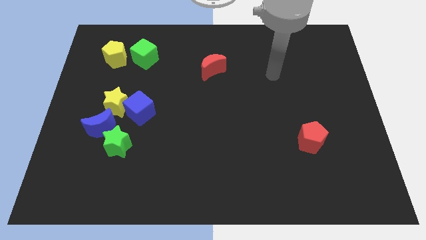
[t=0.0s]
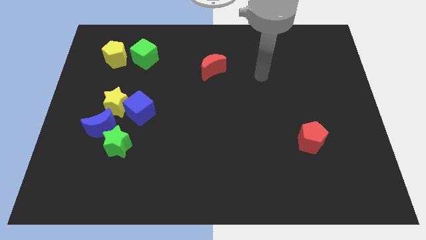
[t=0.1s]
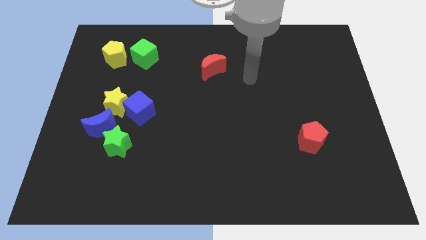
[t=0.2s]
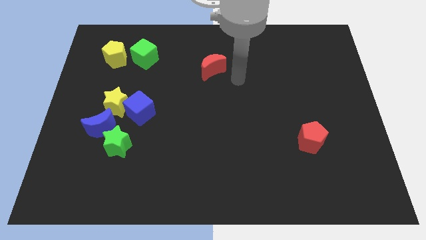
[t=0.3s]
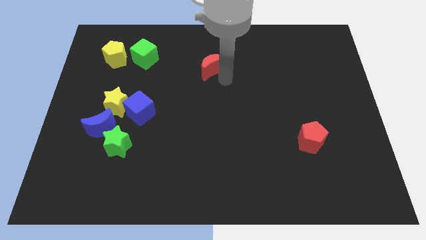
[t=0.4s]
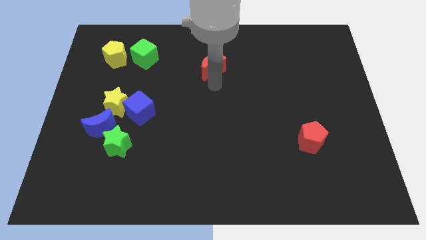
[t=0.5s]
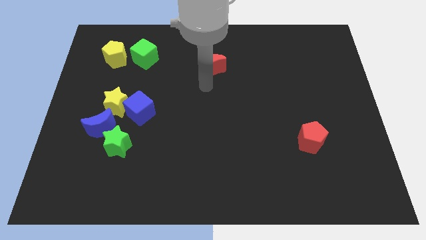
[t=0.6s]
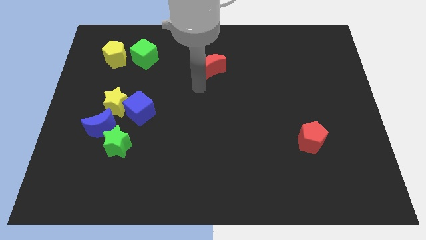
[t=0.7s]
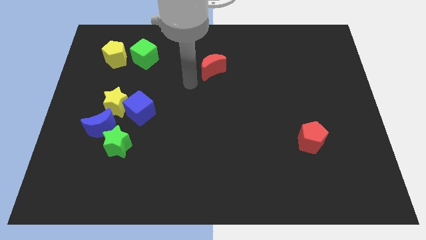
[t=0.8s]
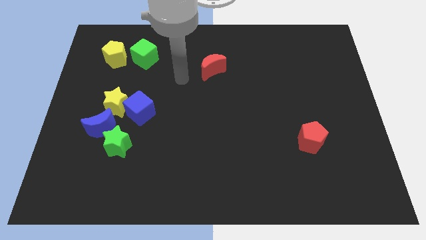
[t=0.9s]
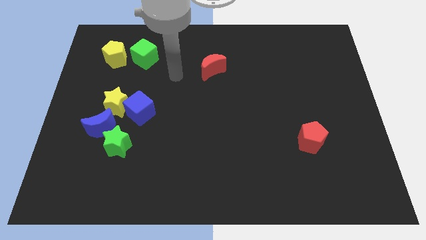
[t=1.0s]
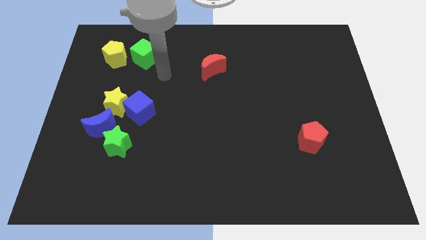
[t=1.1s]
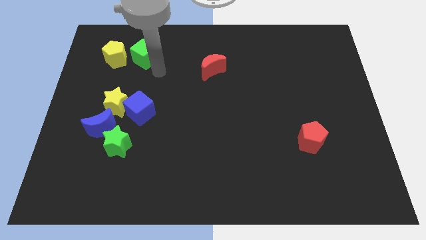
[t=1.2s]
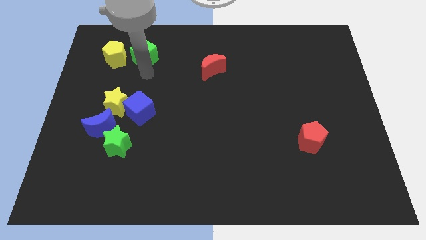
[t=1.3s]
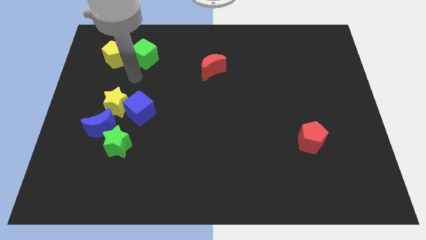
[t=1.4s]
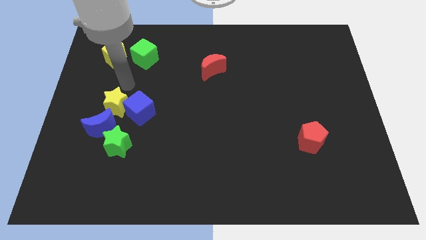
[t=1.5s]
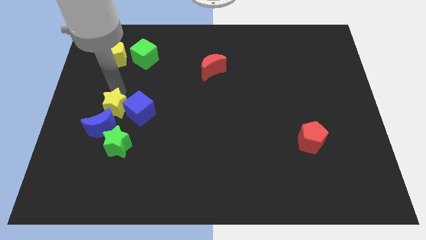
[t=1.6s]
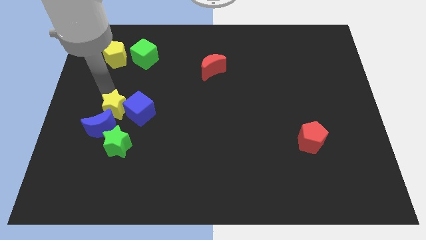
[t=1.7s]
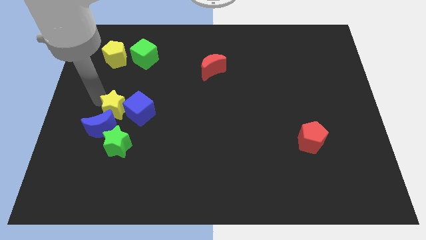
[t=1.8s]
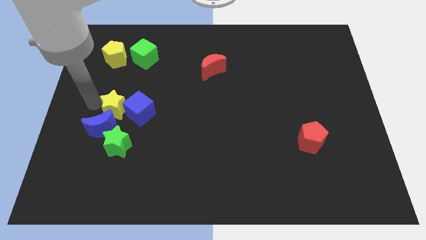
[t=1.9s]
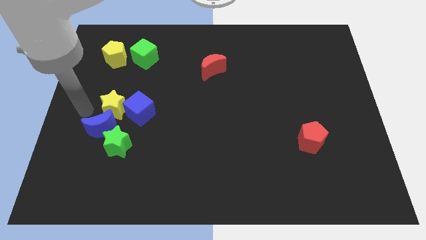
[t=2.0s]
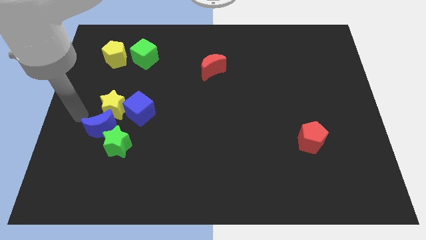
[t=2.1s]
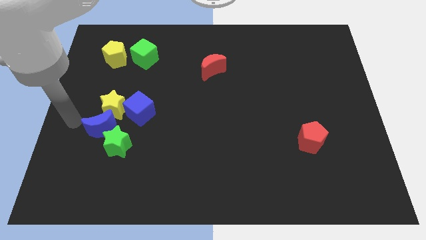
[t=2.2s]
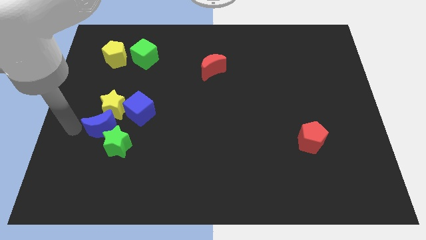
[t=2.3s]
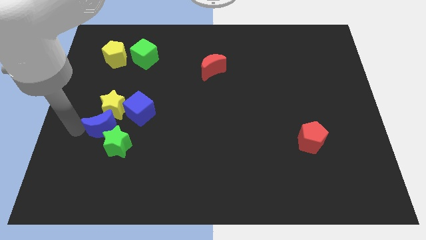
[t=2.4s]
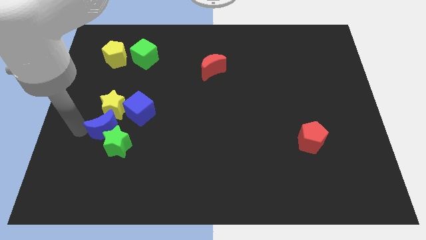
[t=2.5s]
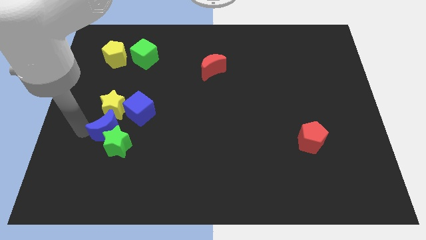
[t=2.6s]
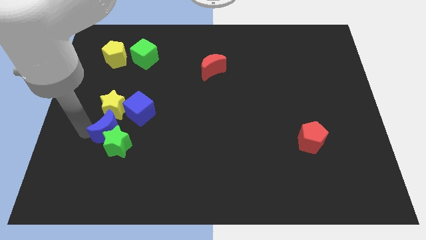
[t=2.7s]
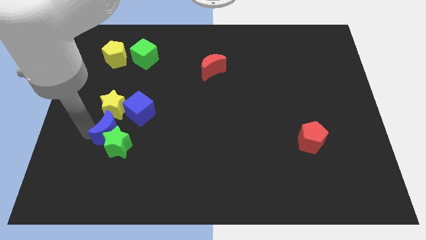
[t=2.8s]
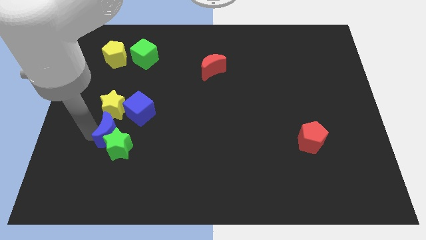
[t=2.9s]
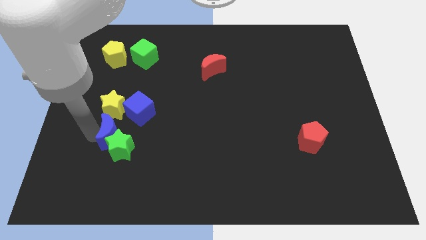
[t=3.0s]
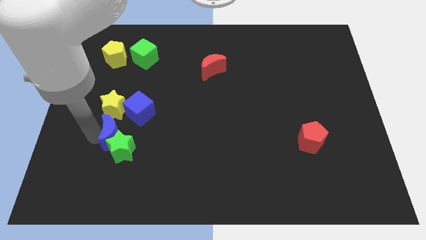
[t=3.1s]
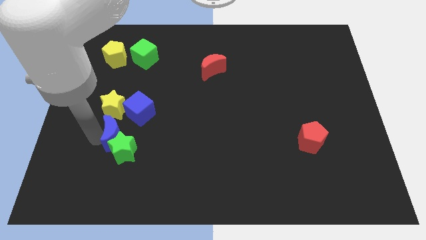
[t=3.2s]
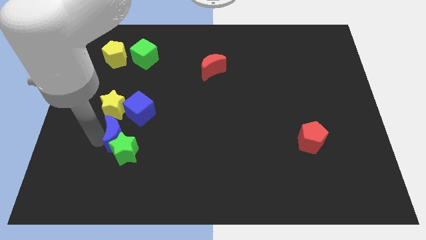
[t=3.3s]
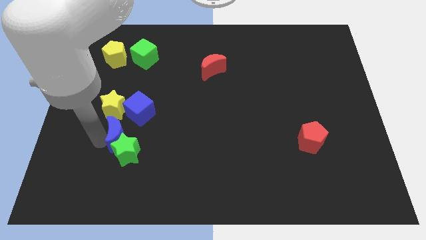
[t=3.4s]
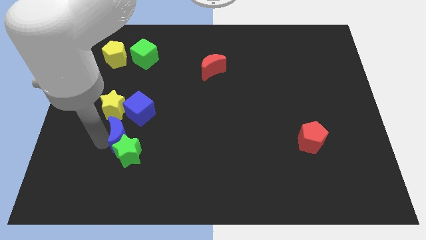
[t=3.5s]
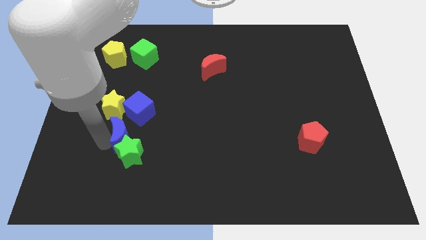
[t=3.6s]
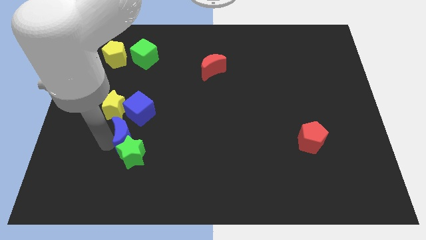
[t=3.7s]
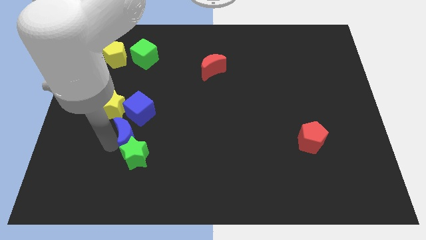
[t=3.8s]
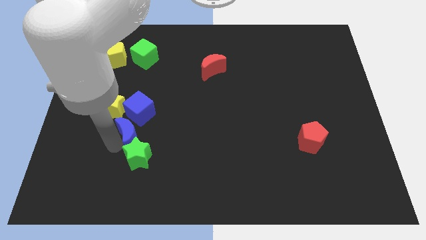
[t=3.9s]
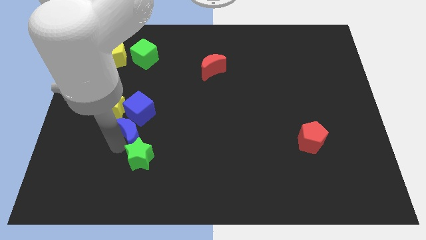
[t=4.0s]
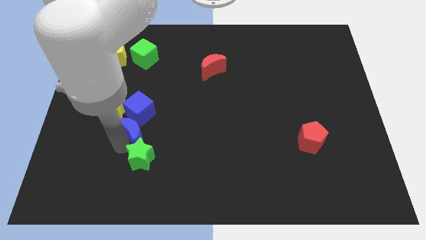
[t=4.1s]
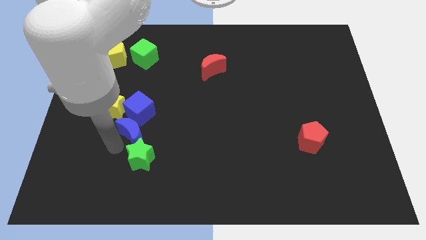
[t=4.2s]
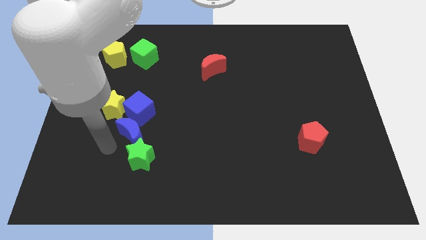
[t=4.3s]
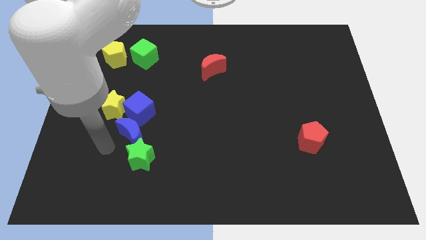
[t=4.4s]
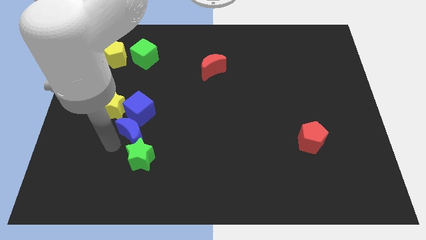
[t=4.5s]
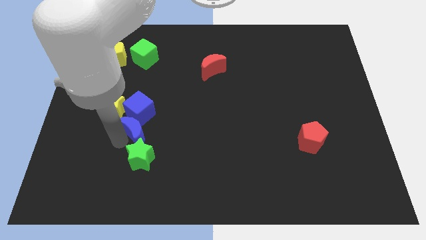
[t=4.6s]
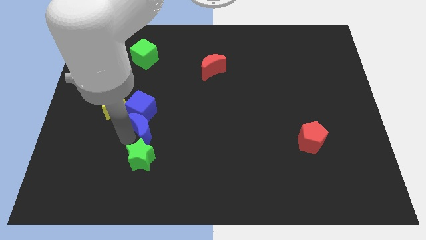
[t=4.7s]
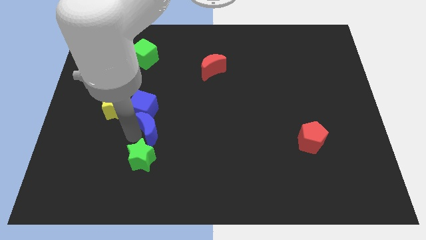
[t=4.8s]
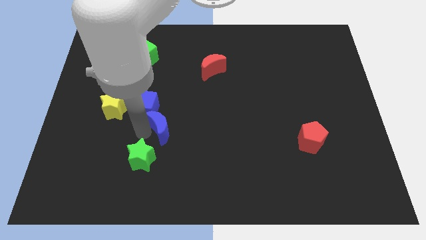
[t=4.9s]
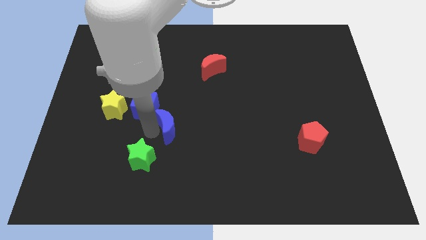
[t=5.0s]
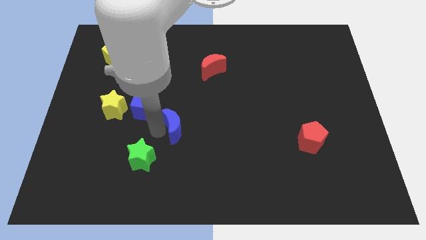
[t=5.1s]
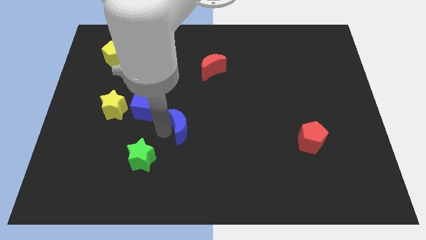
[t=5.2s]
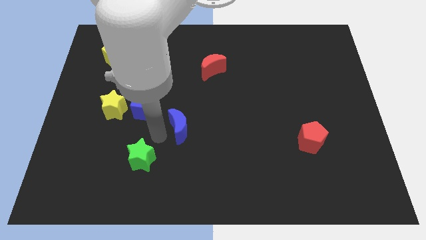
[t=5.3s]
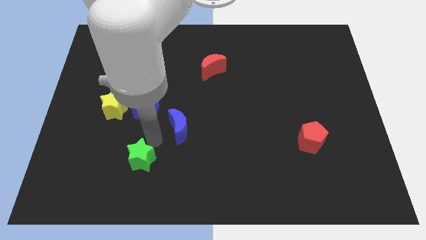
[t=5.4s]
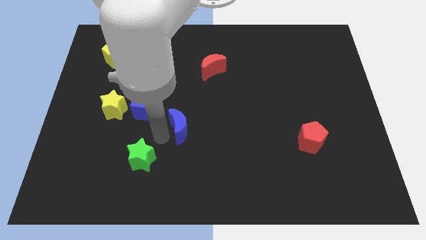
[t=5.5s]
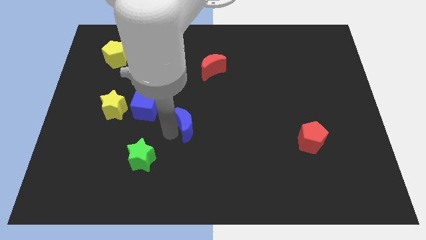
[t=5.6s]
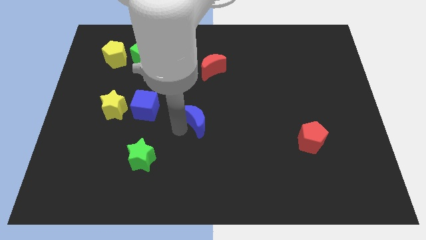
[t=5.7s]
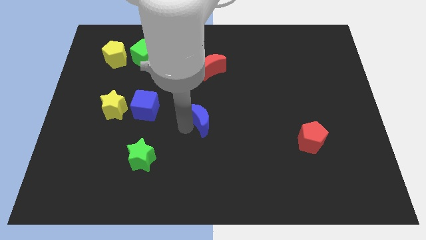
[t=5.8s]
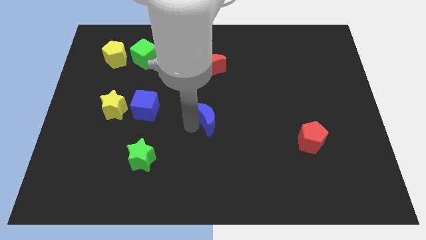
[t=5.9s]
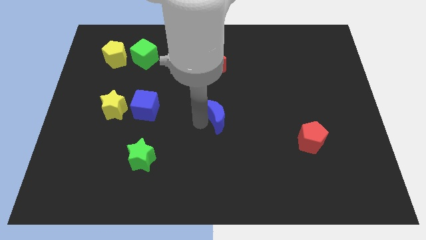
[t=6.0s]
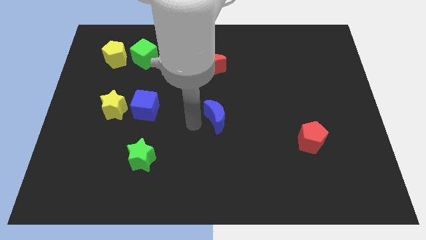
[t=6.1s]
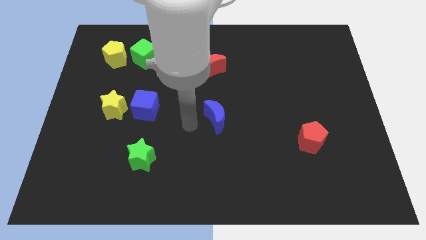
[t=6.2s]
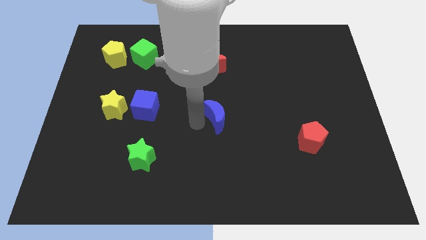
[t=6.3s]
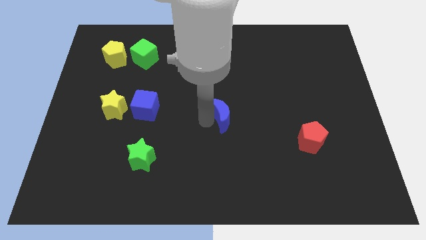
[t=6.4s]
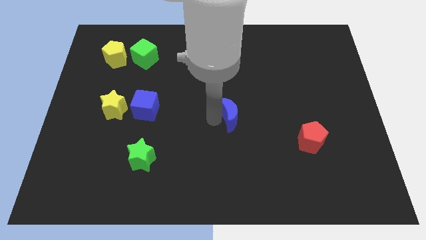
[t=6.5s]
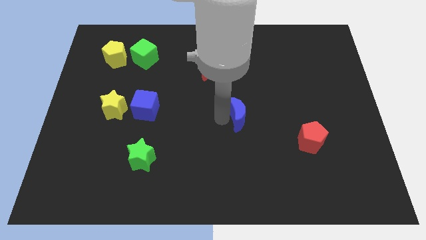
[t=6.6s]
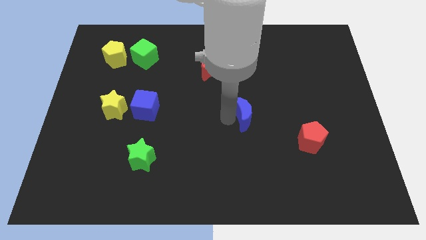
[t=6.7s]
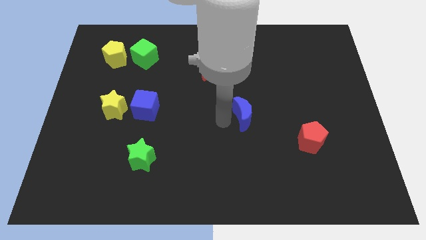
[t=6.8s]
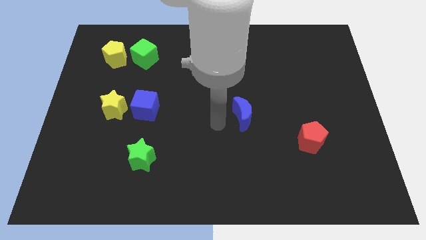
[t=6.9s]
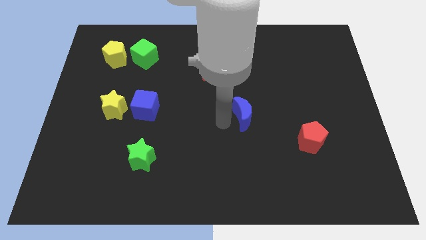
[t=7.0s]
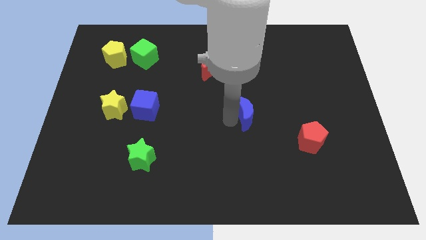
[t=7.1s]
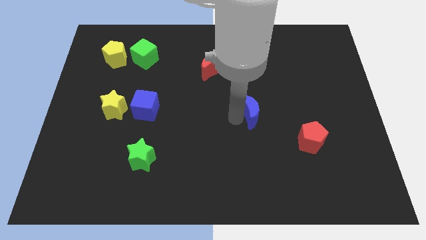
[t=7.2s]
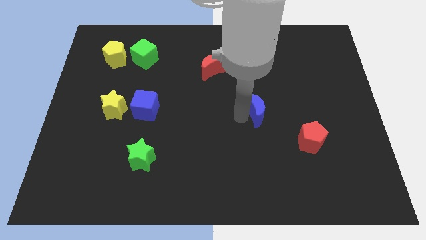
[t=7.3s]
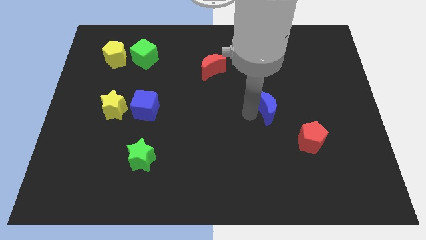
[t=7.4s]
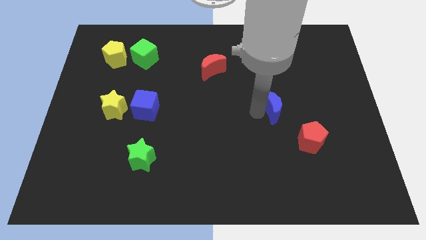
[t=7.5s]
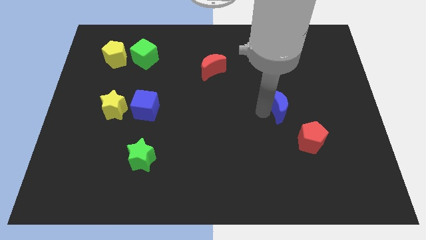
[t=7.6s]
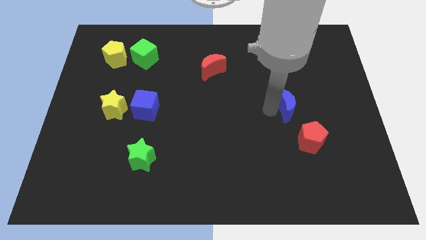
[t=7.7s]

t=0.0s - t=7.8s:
slide the blue moon above the red pentagon
